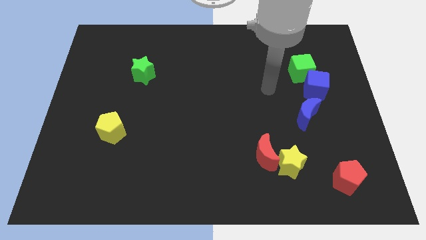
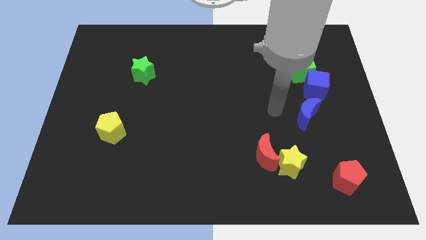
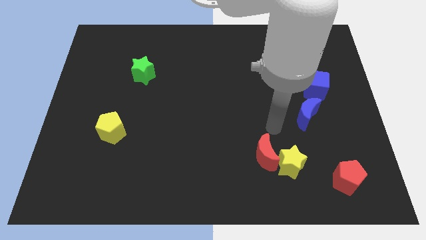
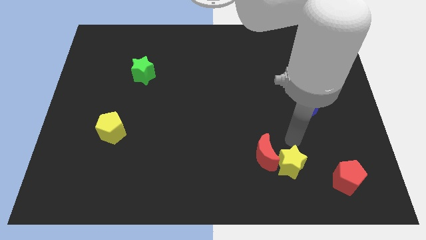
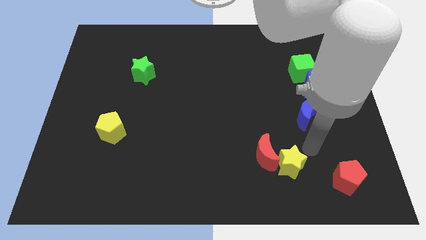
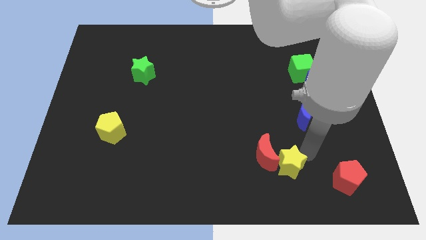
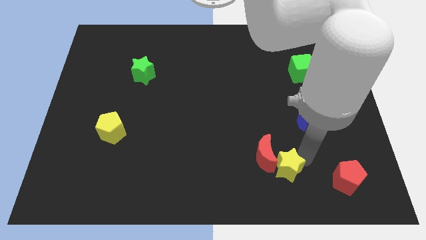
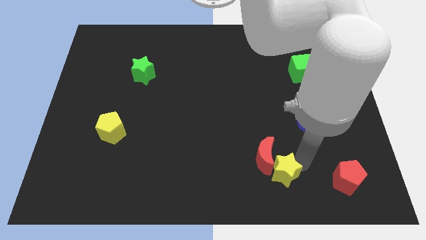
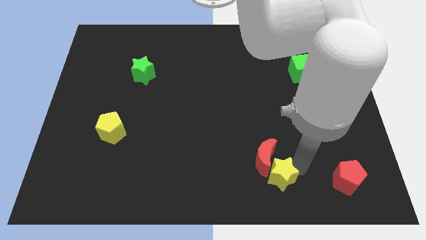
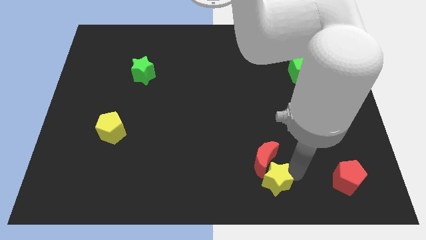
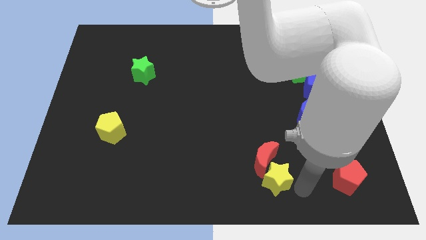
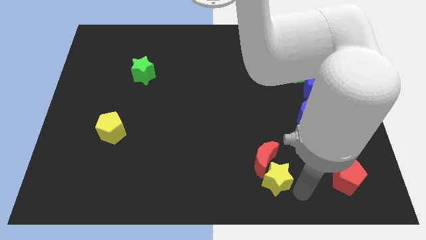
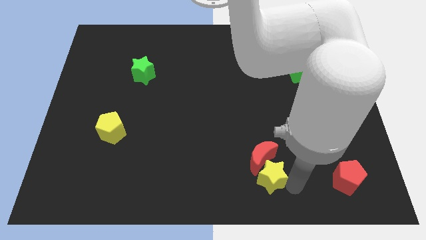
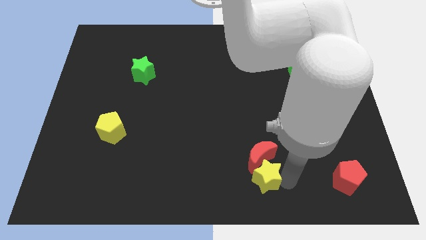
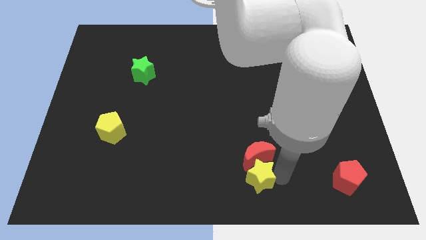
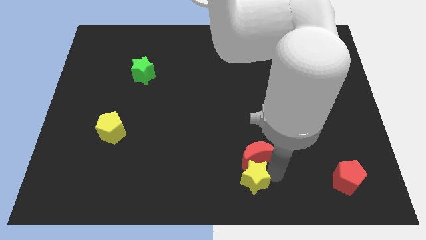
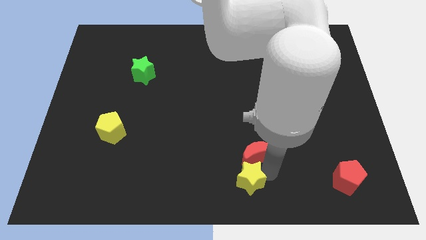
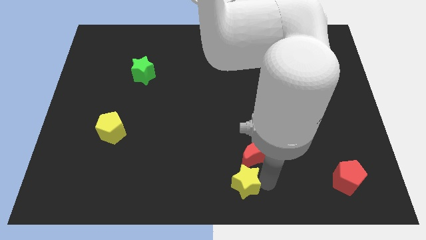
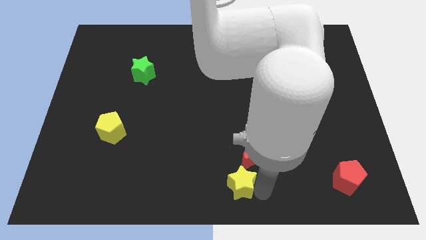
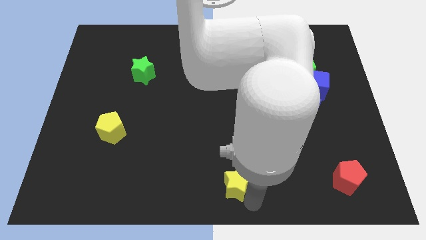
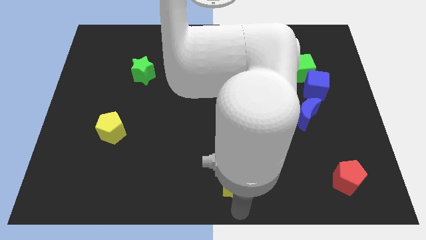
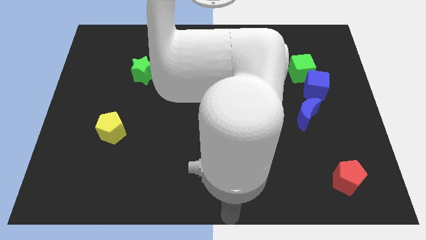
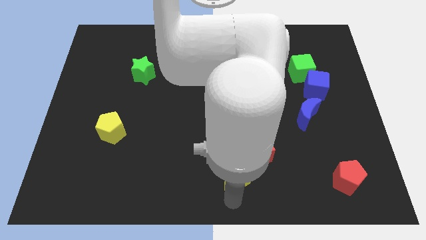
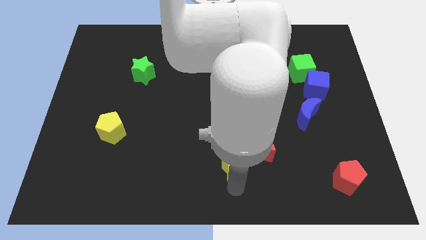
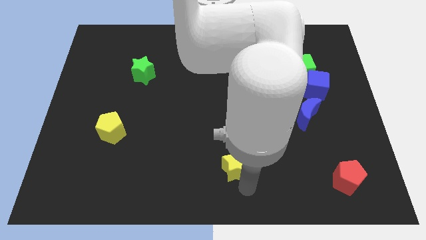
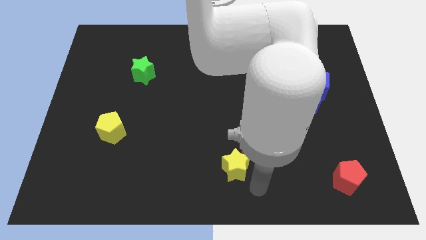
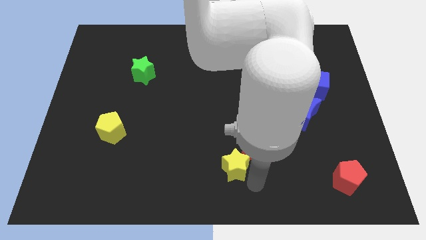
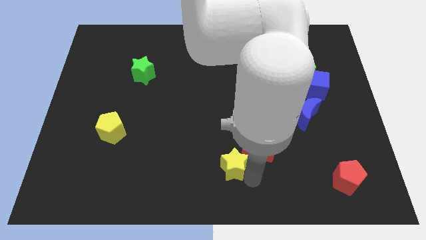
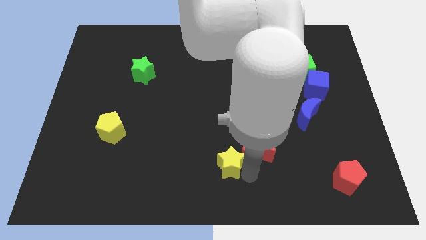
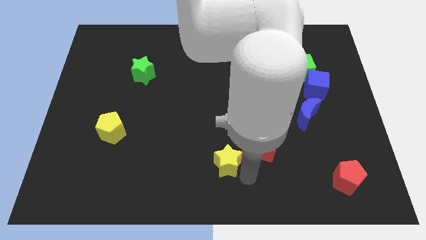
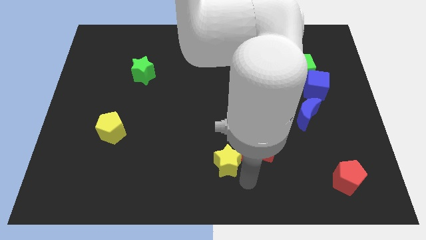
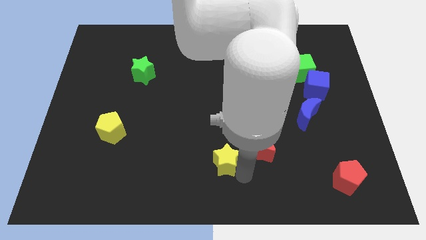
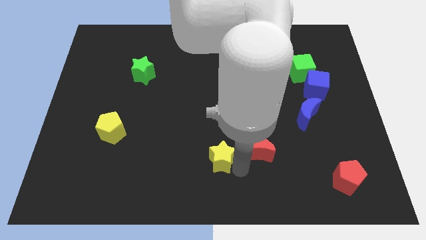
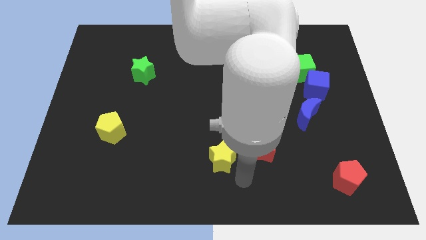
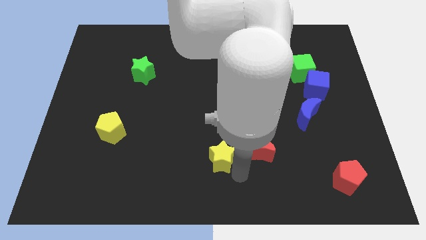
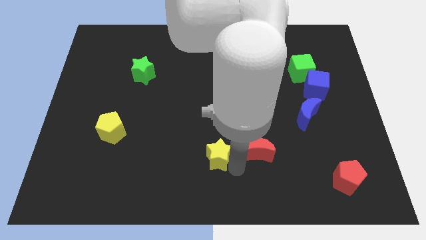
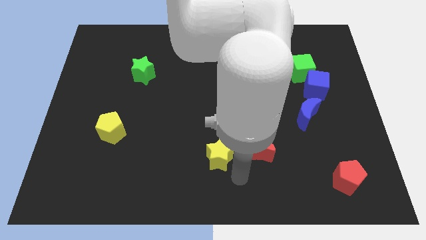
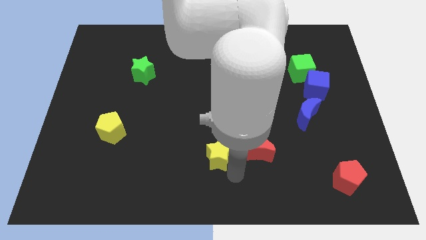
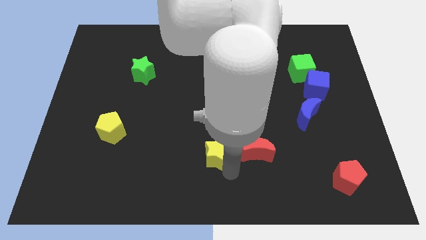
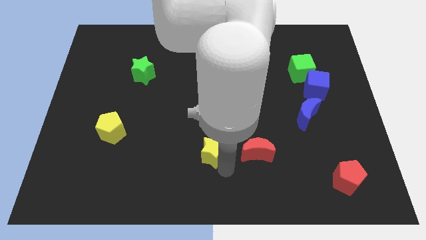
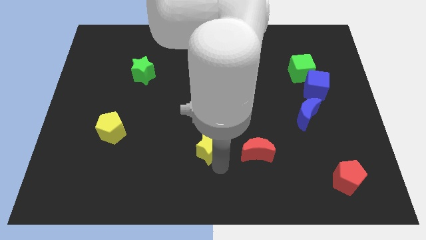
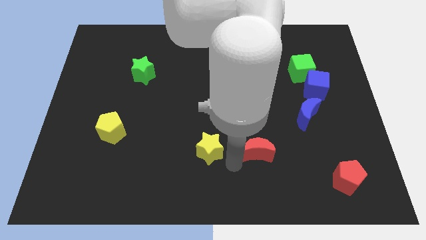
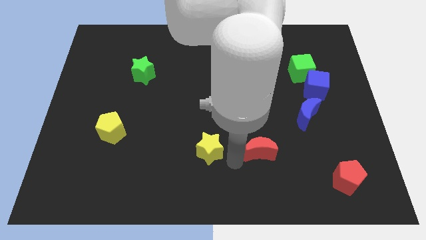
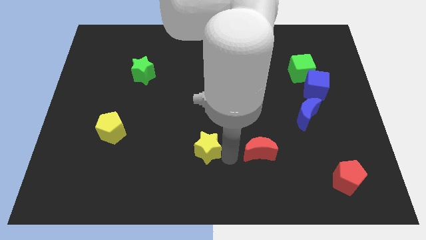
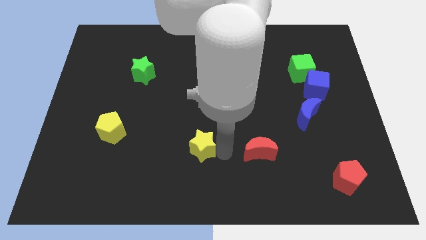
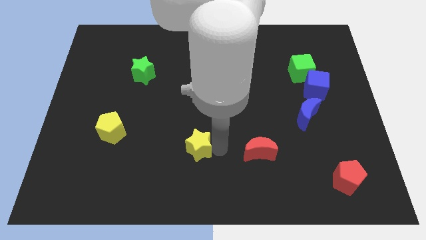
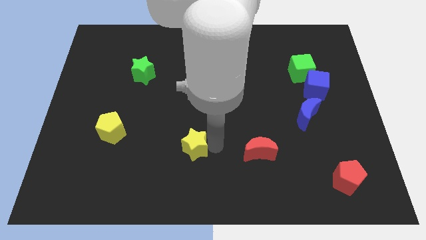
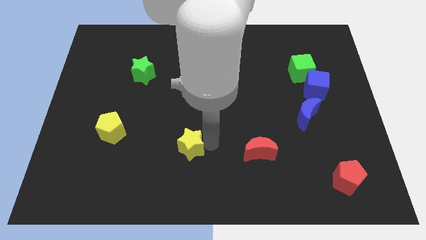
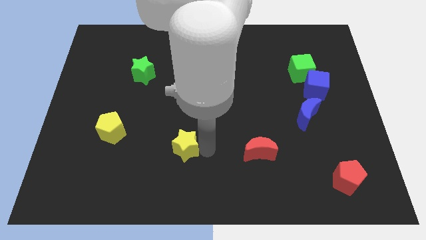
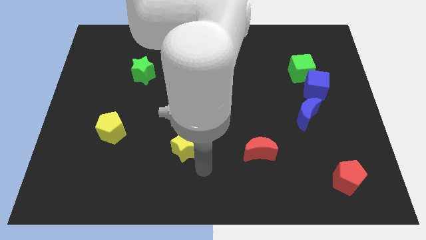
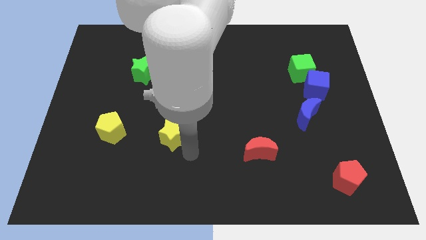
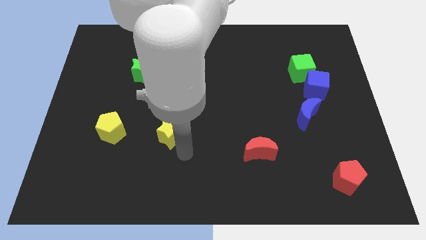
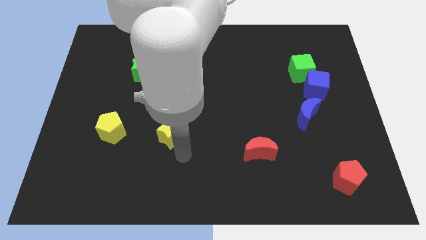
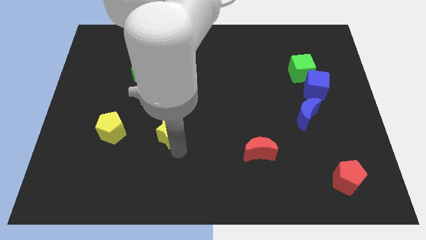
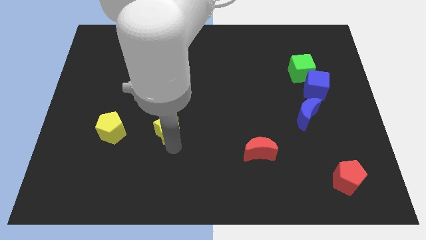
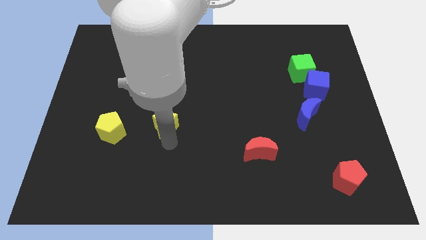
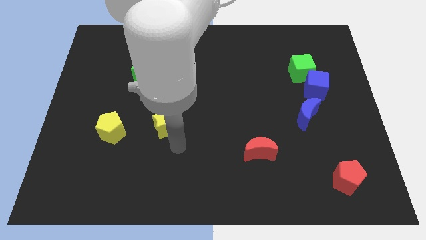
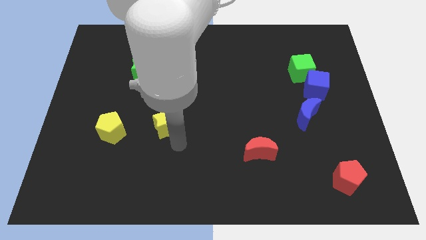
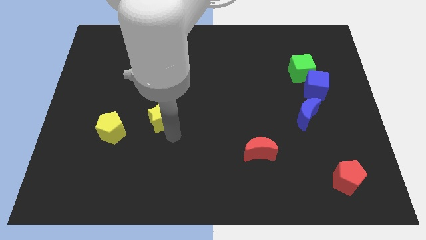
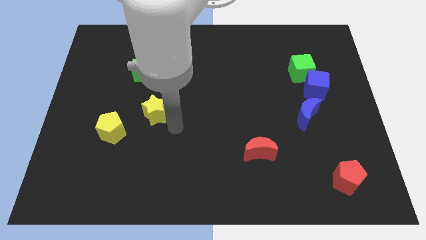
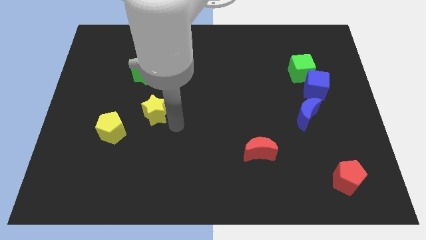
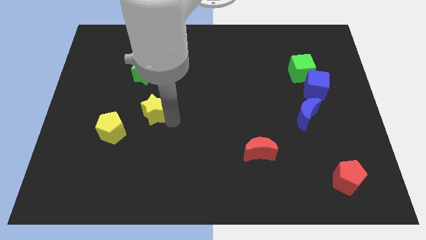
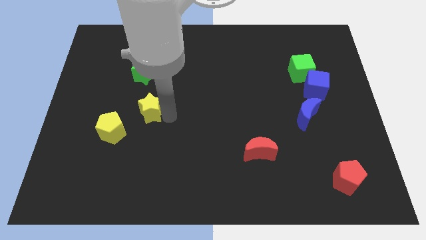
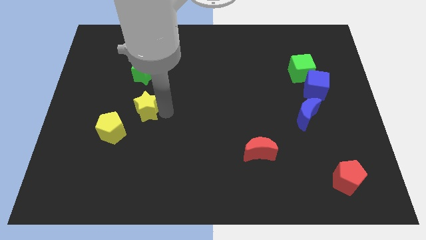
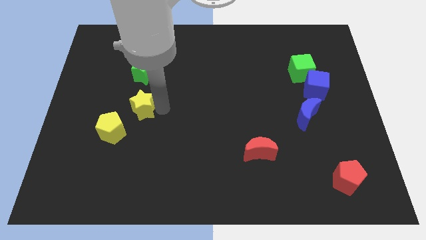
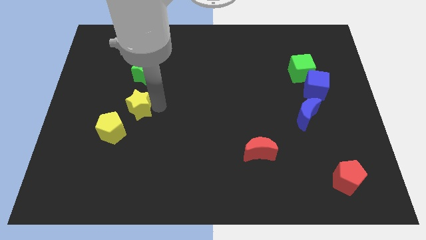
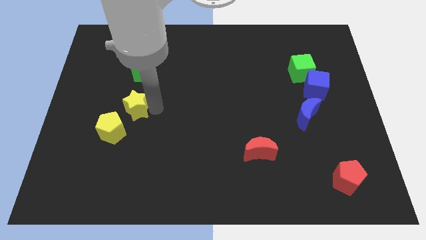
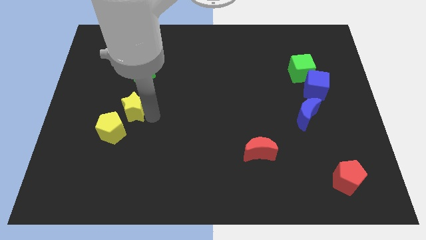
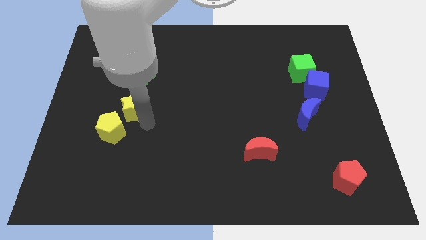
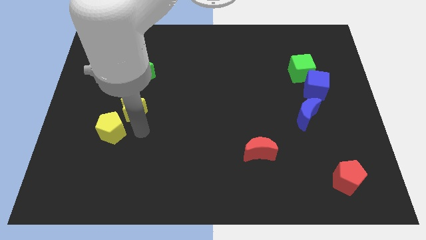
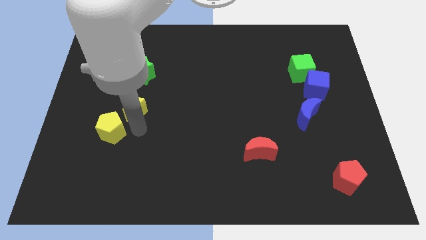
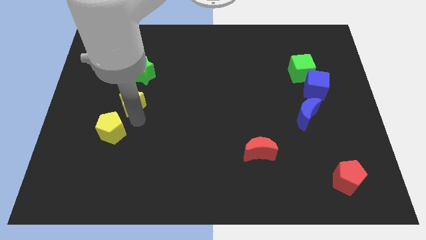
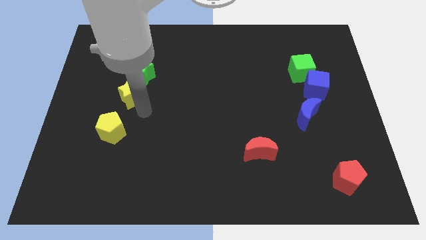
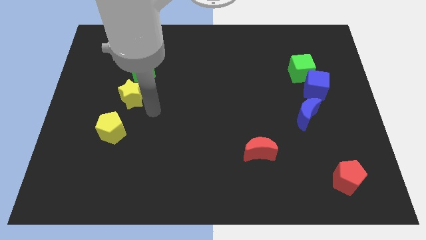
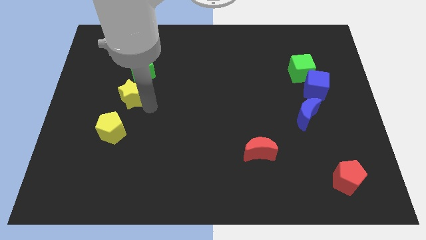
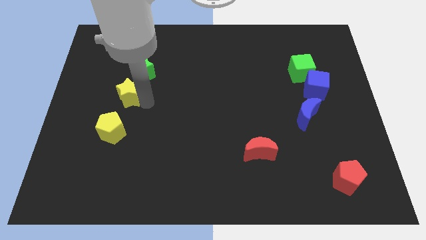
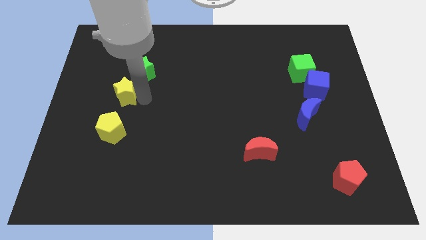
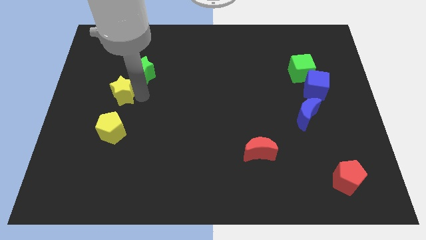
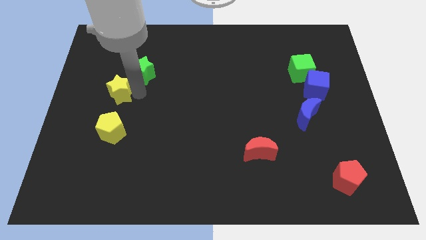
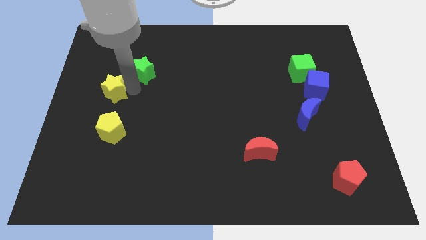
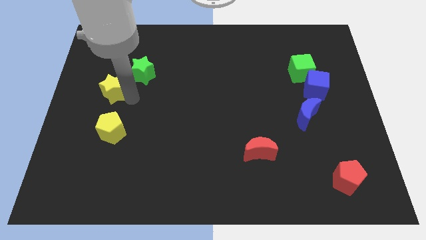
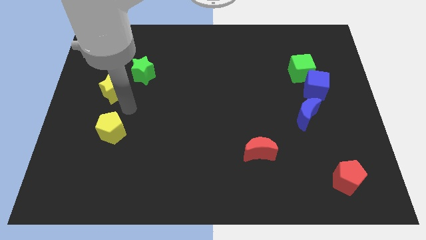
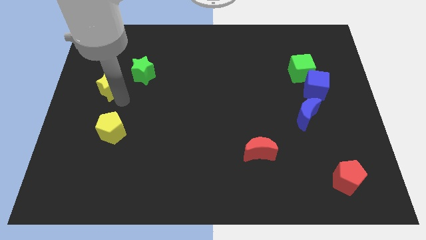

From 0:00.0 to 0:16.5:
put the yellow star just left of the green star
